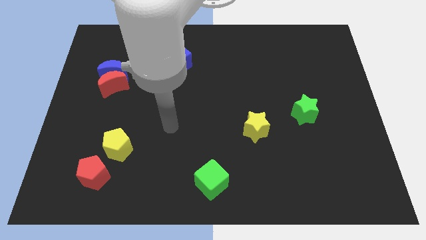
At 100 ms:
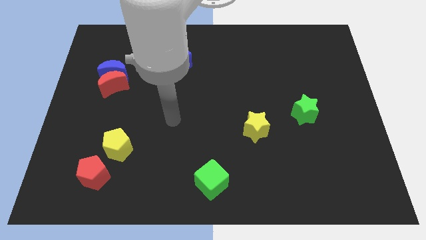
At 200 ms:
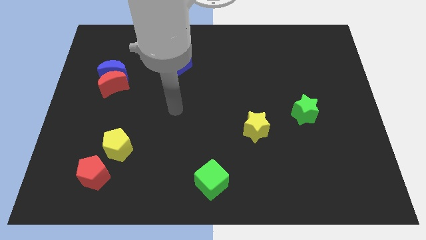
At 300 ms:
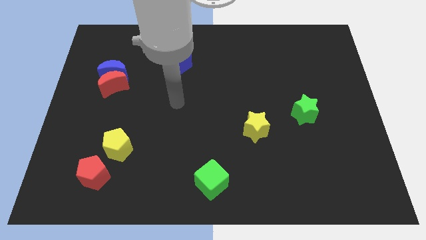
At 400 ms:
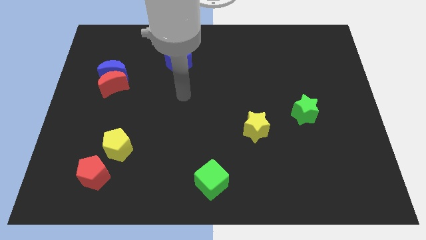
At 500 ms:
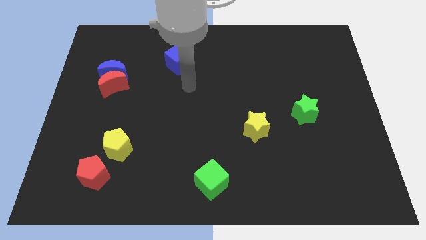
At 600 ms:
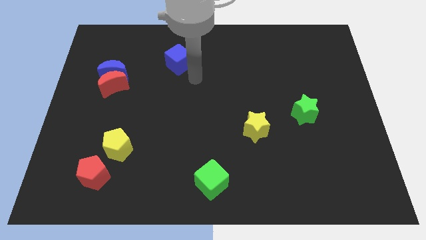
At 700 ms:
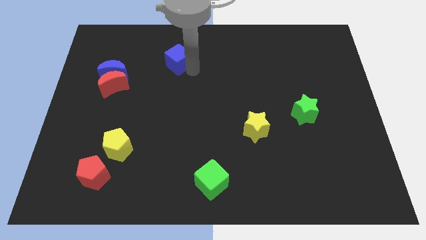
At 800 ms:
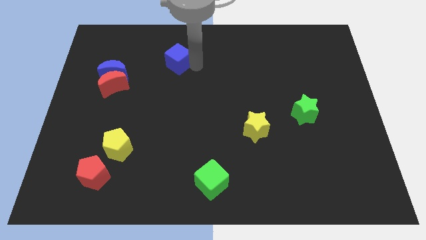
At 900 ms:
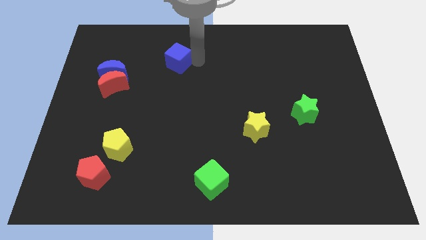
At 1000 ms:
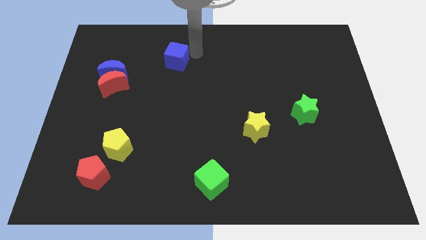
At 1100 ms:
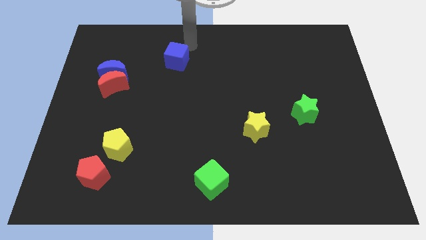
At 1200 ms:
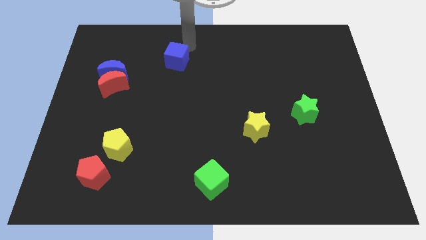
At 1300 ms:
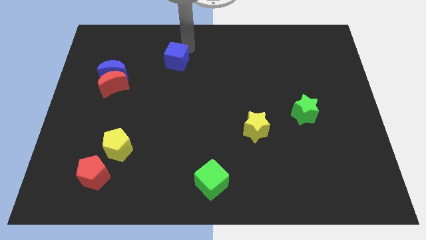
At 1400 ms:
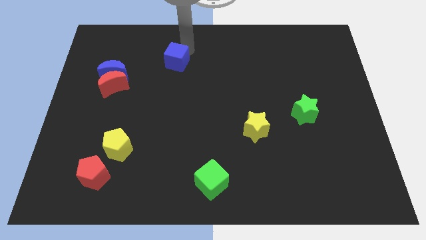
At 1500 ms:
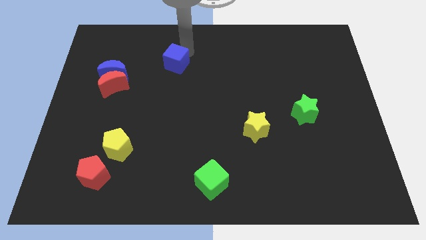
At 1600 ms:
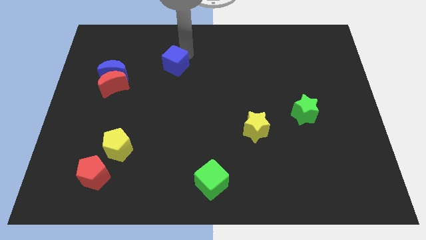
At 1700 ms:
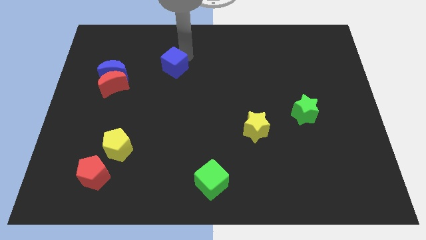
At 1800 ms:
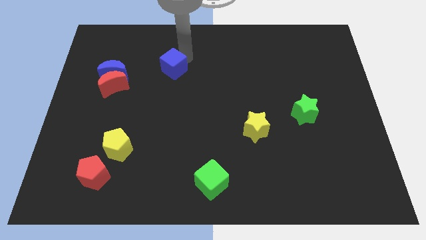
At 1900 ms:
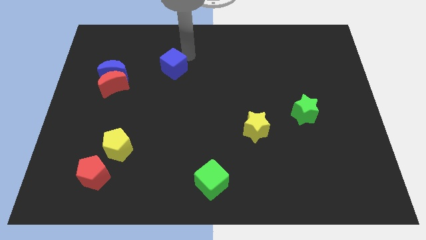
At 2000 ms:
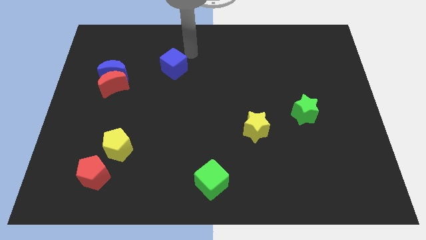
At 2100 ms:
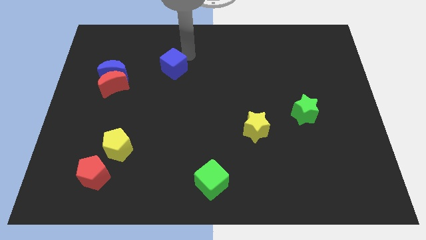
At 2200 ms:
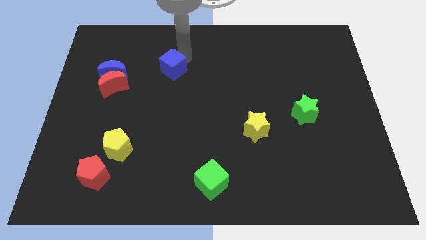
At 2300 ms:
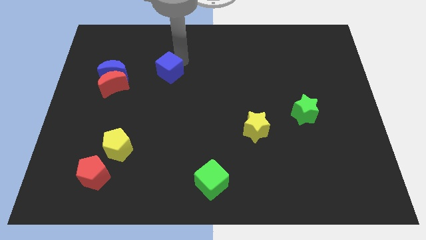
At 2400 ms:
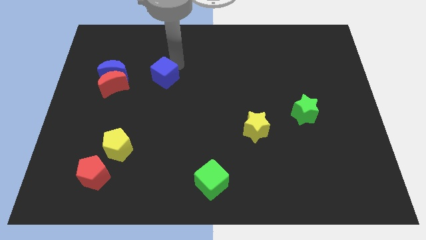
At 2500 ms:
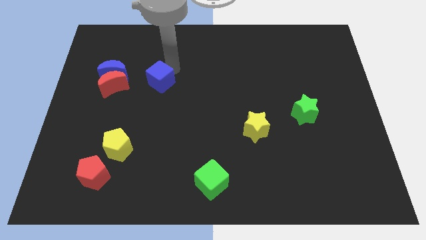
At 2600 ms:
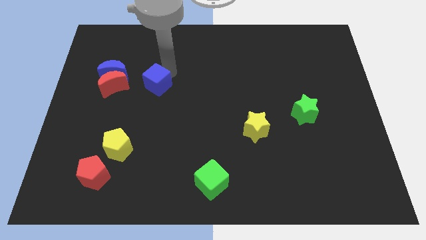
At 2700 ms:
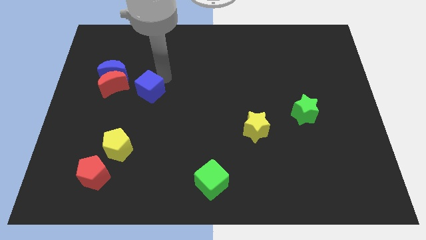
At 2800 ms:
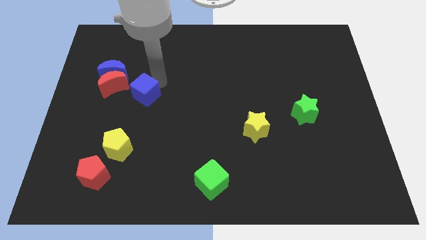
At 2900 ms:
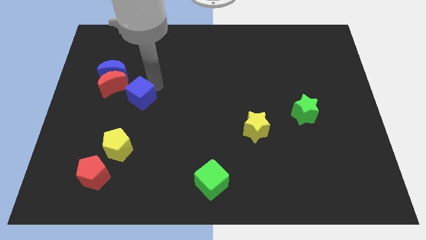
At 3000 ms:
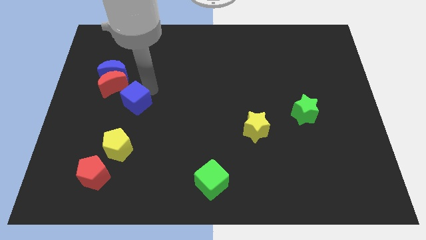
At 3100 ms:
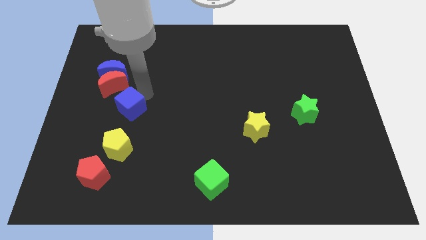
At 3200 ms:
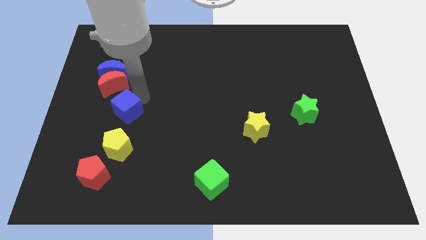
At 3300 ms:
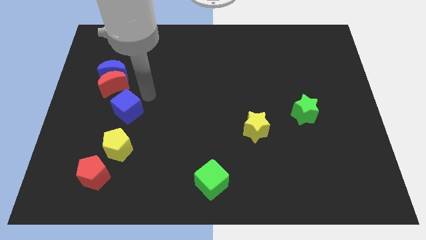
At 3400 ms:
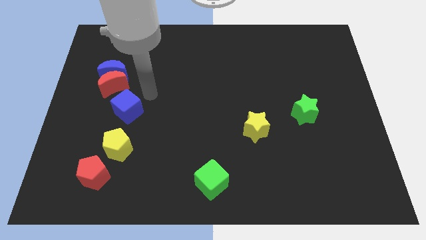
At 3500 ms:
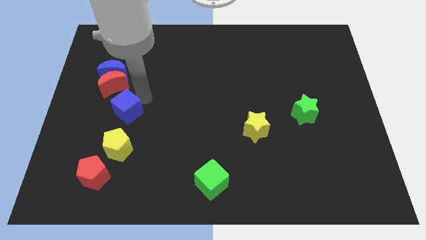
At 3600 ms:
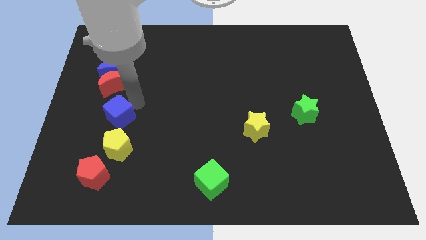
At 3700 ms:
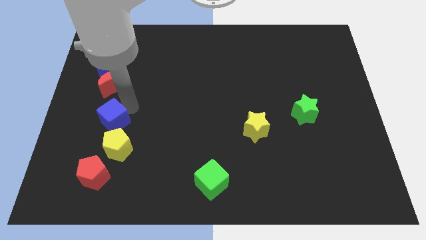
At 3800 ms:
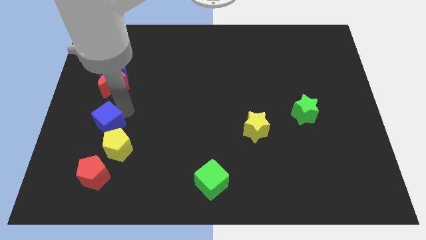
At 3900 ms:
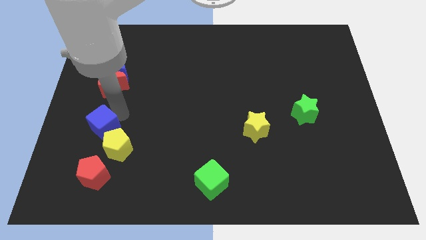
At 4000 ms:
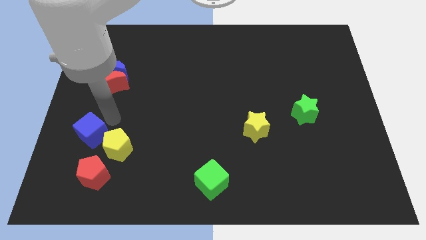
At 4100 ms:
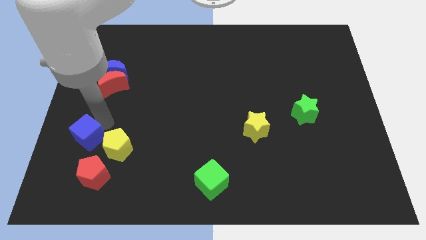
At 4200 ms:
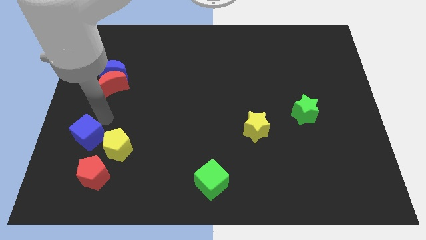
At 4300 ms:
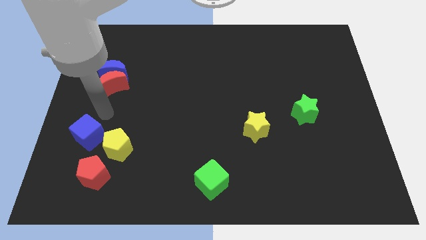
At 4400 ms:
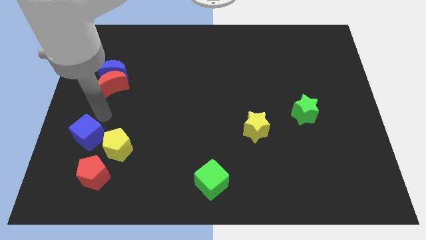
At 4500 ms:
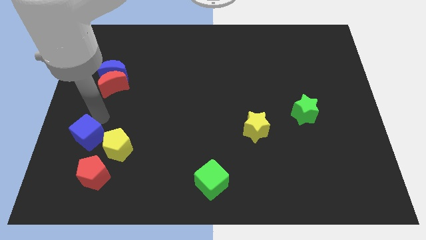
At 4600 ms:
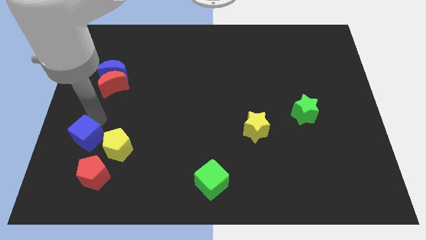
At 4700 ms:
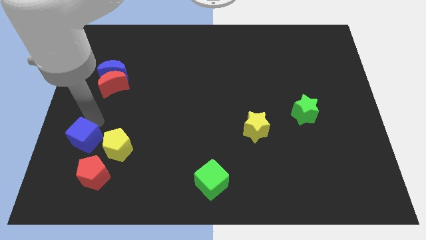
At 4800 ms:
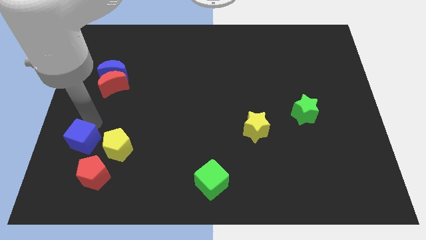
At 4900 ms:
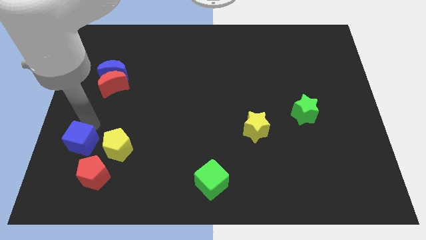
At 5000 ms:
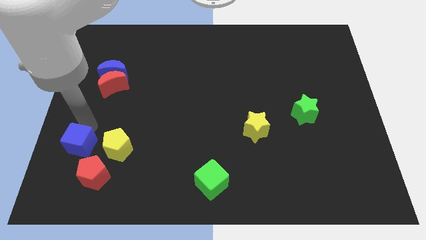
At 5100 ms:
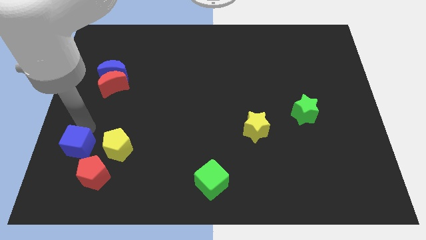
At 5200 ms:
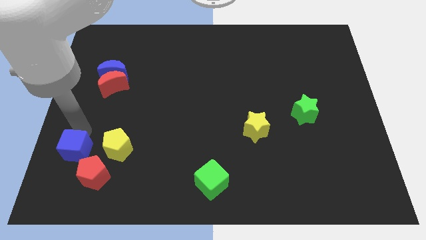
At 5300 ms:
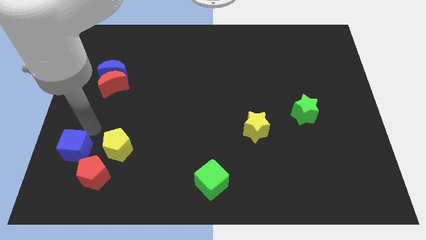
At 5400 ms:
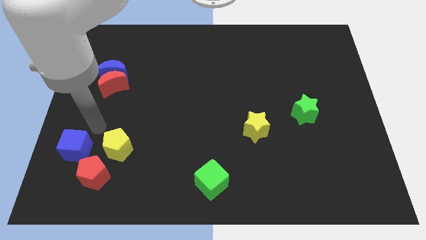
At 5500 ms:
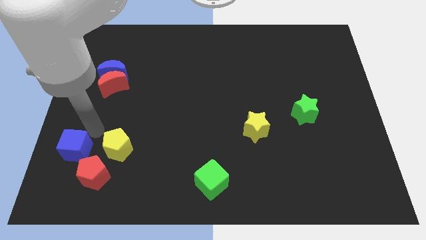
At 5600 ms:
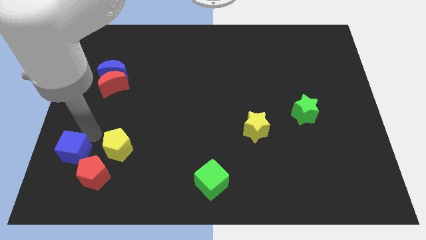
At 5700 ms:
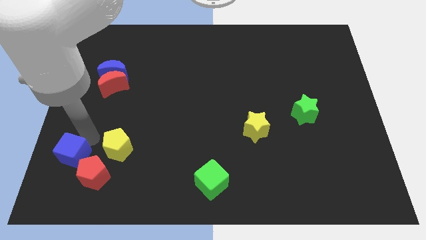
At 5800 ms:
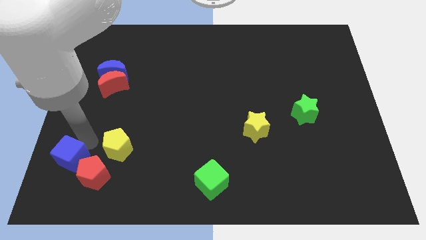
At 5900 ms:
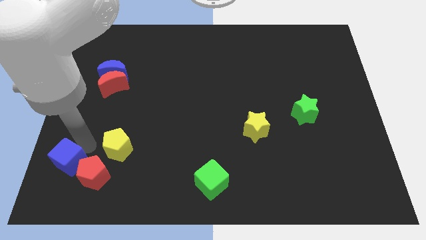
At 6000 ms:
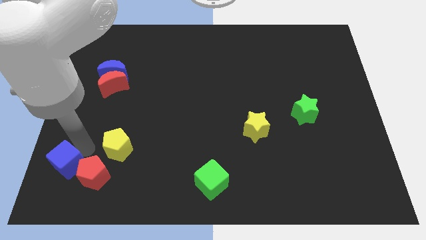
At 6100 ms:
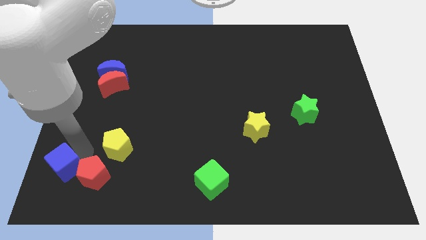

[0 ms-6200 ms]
put the blue cube to the bottom left
